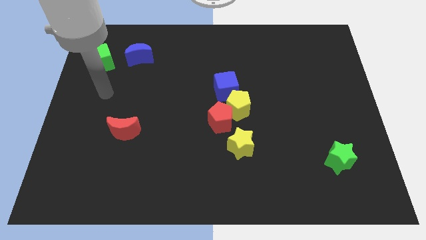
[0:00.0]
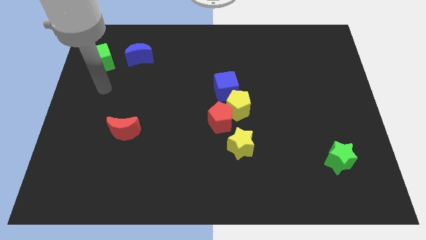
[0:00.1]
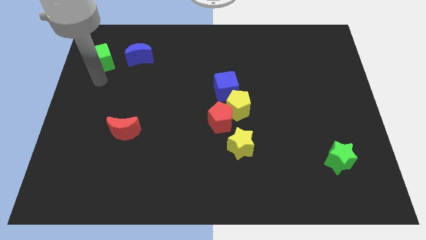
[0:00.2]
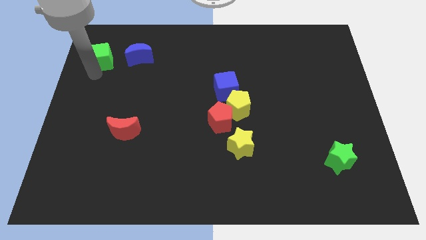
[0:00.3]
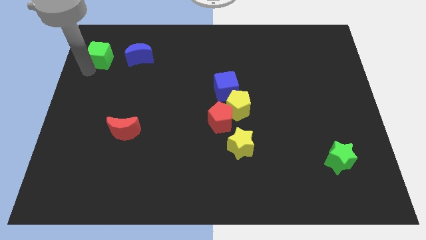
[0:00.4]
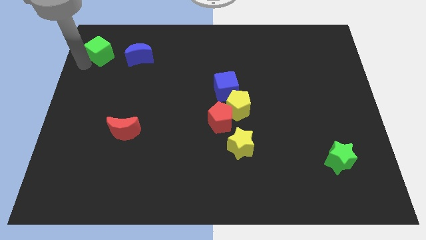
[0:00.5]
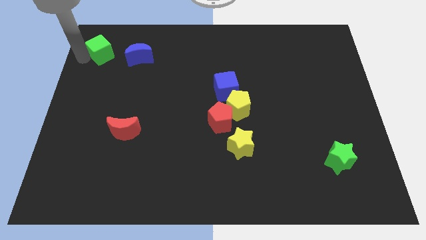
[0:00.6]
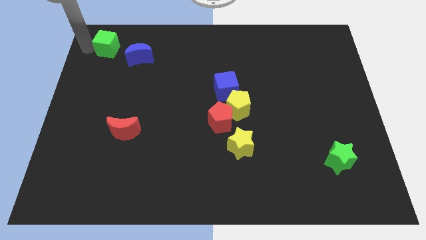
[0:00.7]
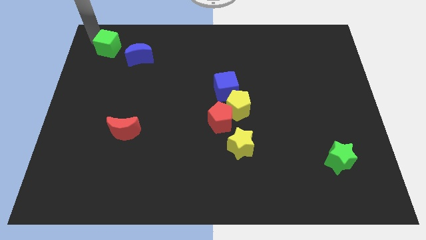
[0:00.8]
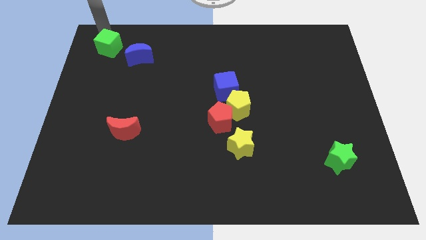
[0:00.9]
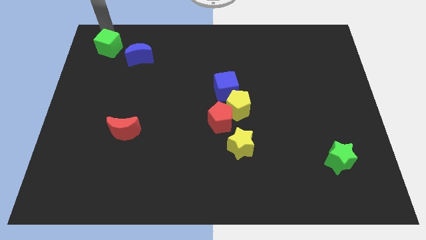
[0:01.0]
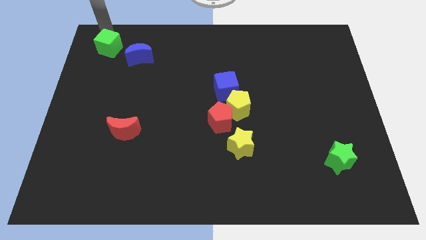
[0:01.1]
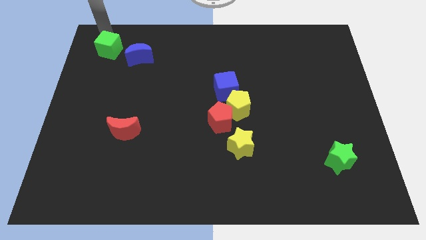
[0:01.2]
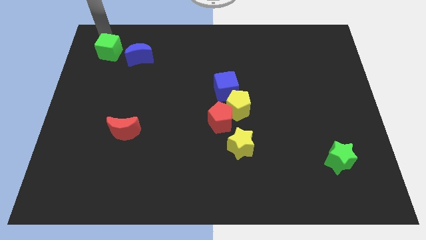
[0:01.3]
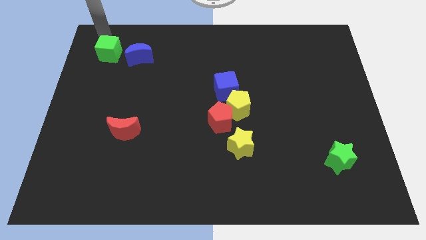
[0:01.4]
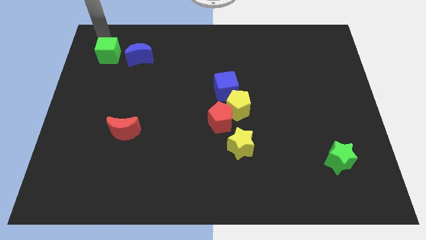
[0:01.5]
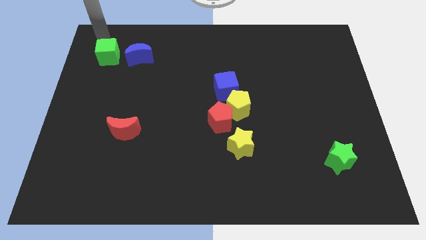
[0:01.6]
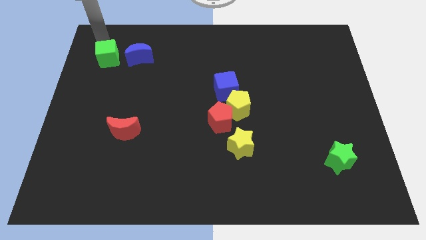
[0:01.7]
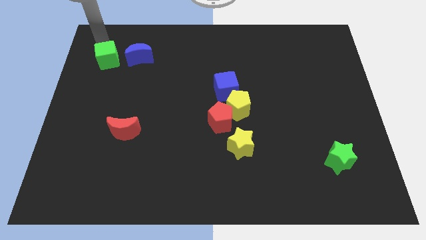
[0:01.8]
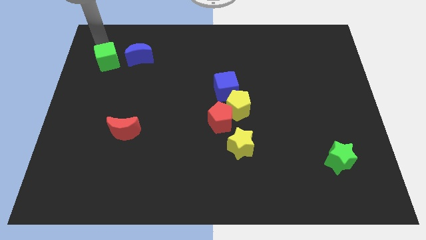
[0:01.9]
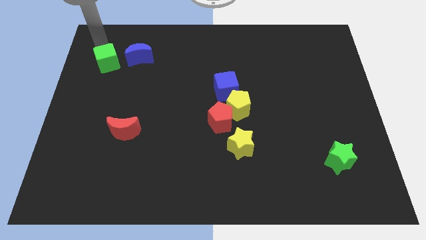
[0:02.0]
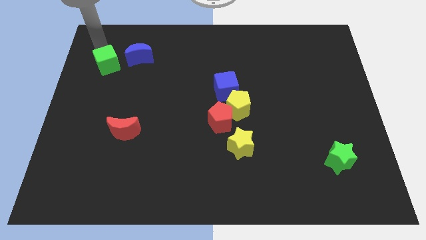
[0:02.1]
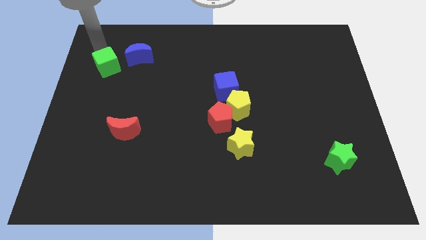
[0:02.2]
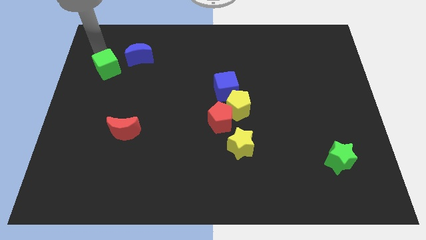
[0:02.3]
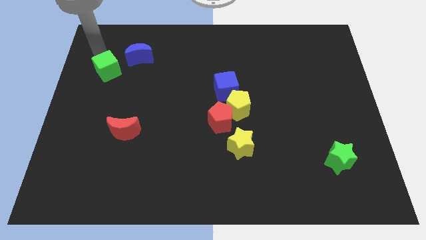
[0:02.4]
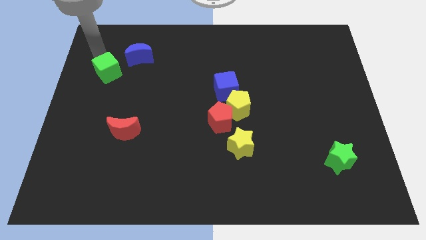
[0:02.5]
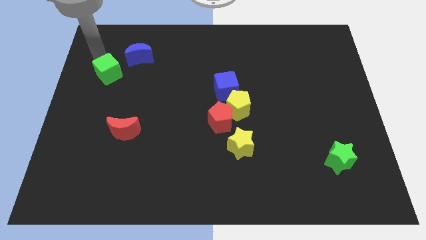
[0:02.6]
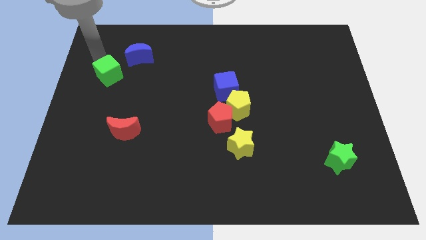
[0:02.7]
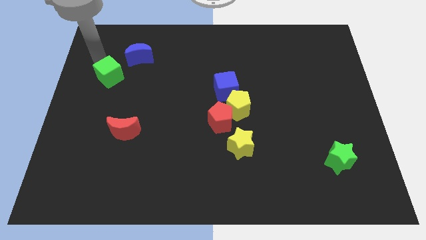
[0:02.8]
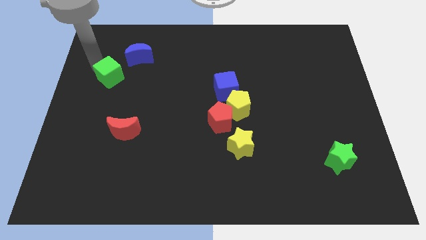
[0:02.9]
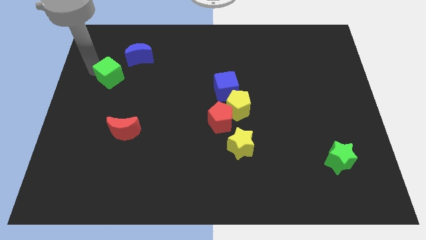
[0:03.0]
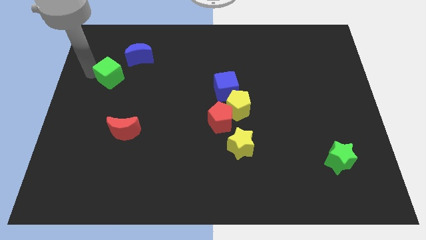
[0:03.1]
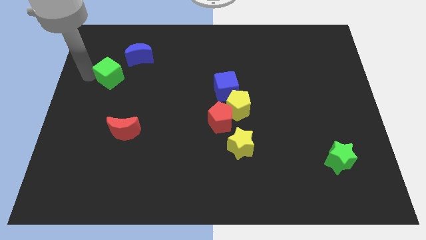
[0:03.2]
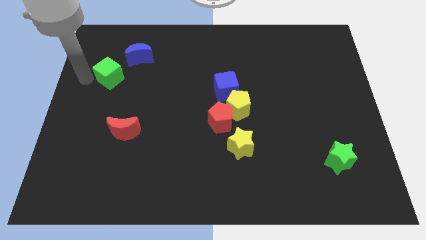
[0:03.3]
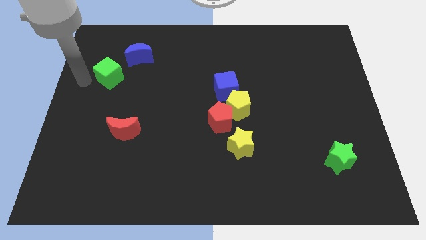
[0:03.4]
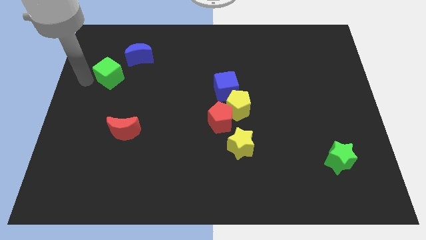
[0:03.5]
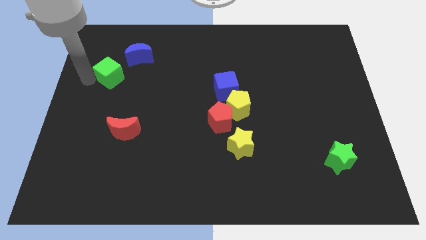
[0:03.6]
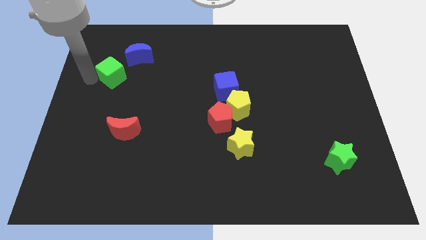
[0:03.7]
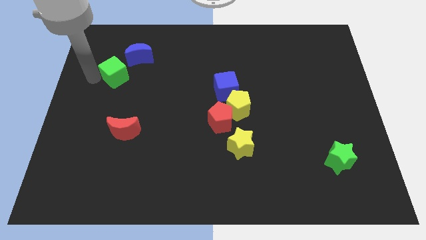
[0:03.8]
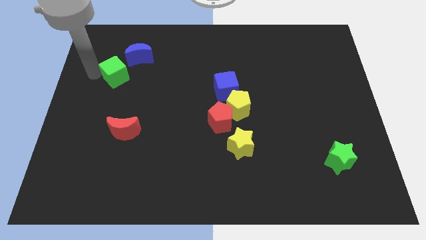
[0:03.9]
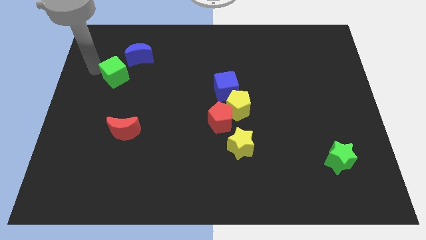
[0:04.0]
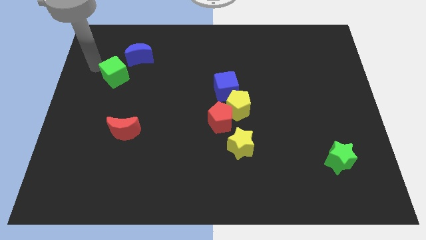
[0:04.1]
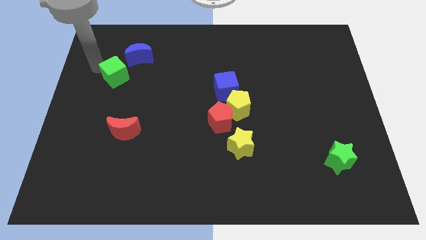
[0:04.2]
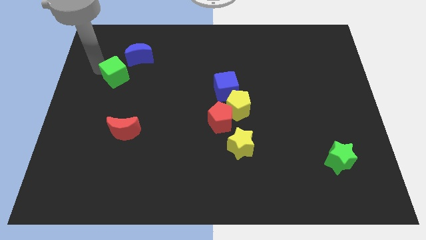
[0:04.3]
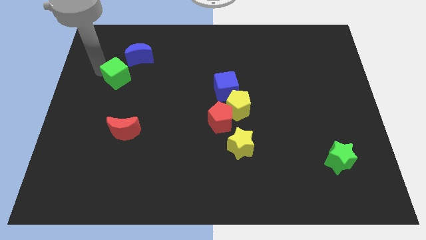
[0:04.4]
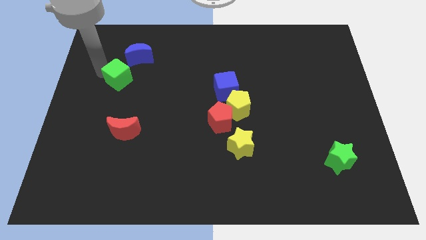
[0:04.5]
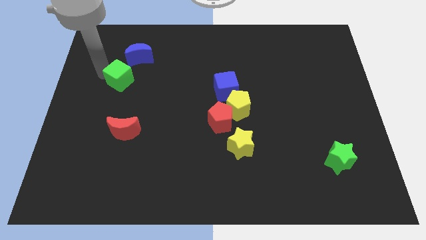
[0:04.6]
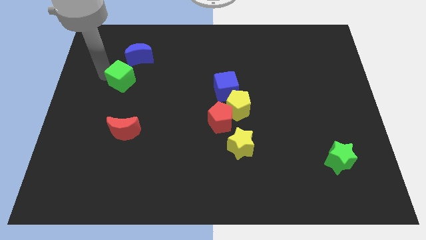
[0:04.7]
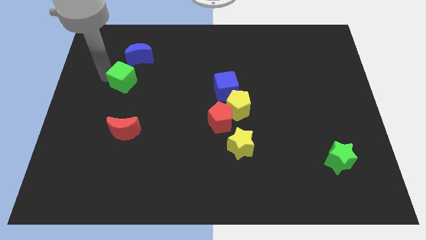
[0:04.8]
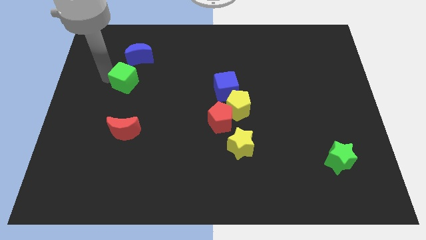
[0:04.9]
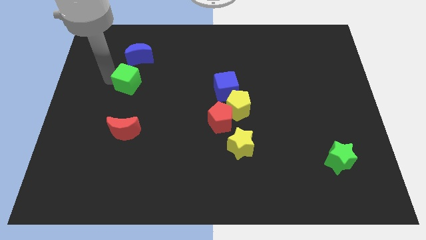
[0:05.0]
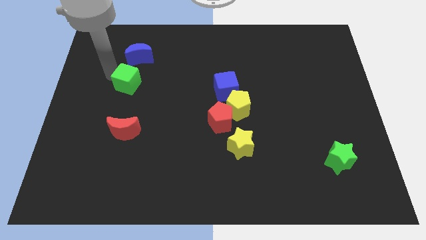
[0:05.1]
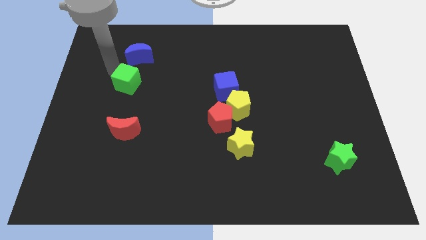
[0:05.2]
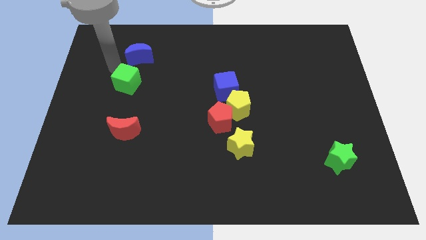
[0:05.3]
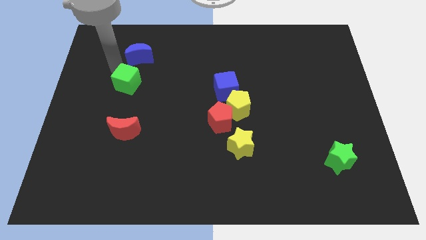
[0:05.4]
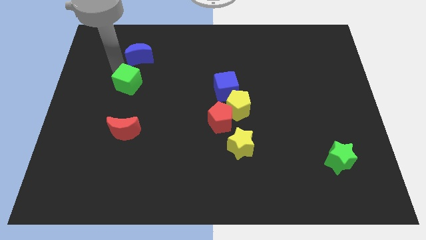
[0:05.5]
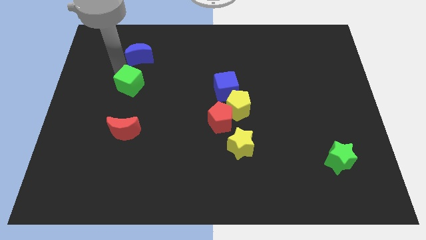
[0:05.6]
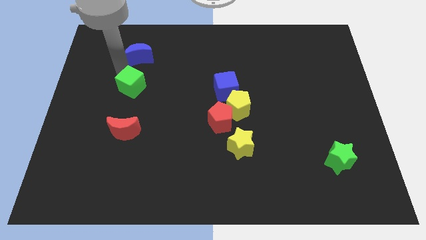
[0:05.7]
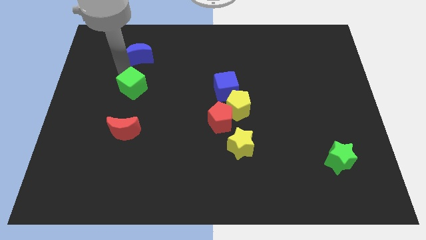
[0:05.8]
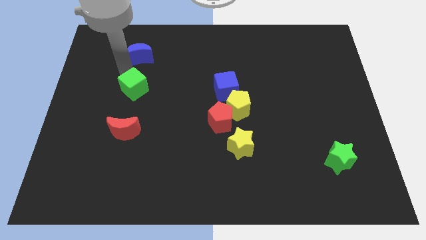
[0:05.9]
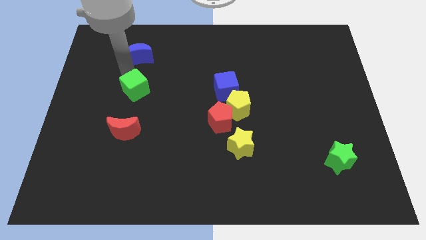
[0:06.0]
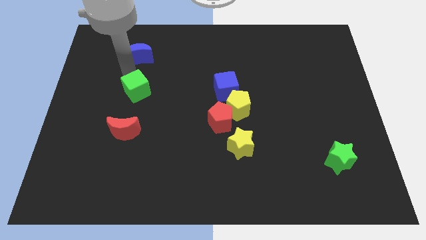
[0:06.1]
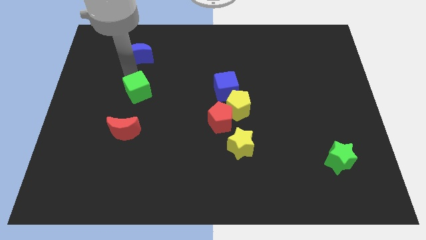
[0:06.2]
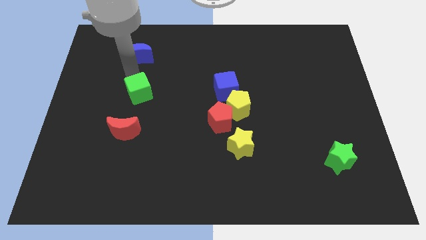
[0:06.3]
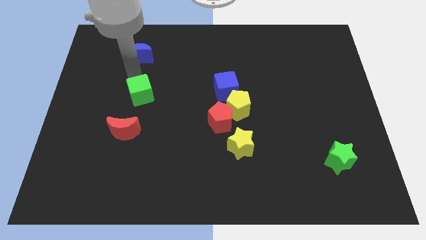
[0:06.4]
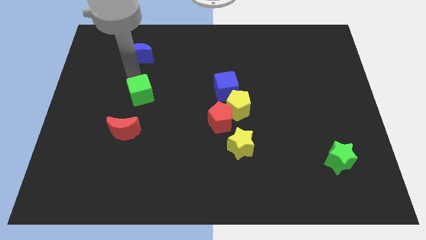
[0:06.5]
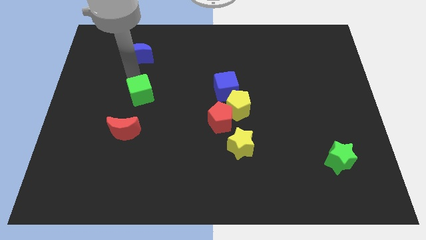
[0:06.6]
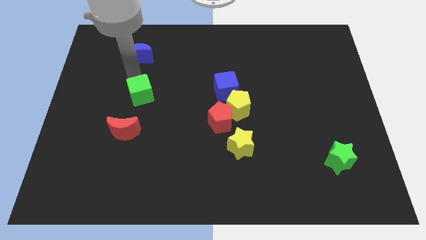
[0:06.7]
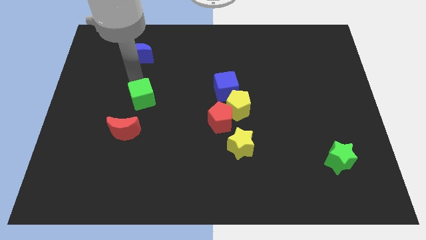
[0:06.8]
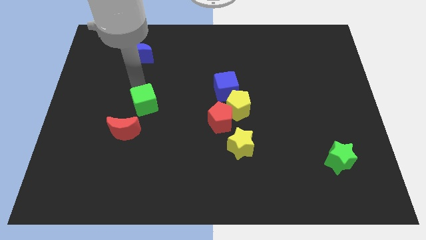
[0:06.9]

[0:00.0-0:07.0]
slide the green cube diagonally up and to the right of the red moon

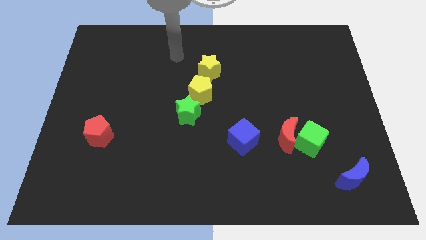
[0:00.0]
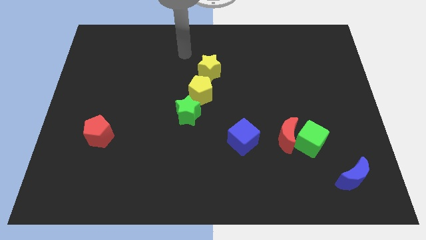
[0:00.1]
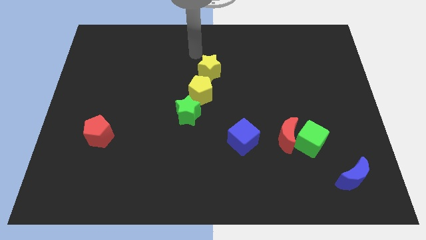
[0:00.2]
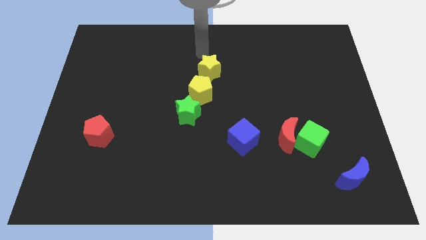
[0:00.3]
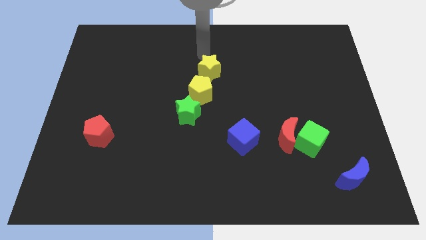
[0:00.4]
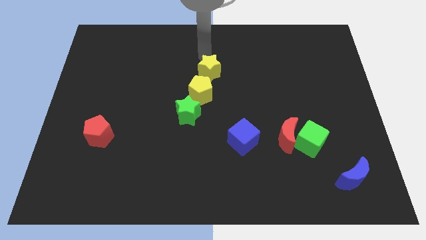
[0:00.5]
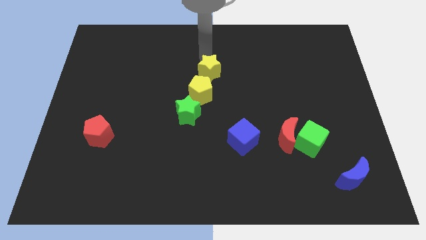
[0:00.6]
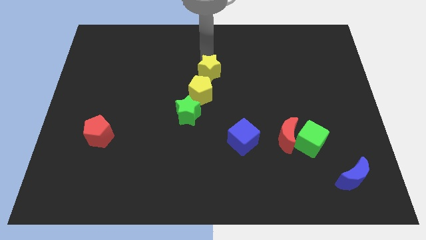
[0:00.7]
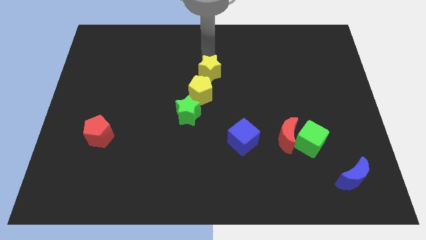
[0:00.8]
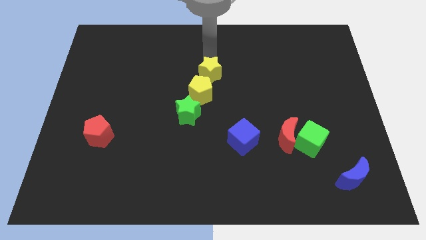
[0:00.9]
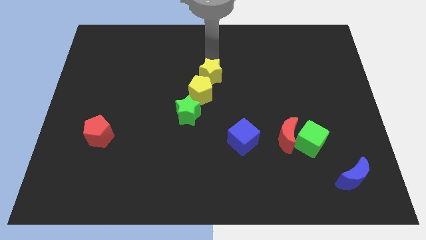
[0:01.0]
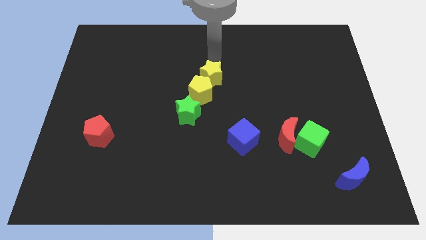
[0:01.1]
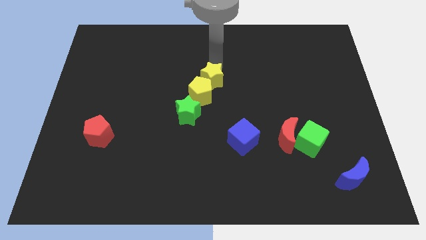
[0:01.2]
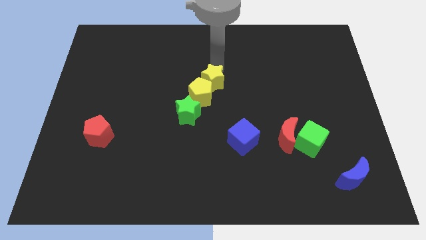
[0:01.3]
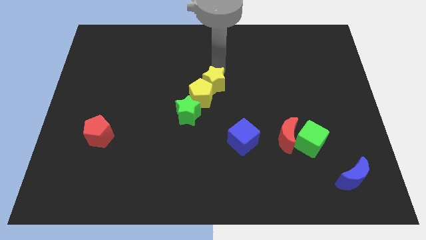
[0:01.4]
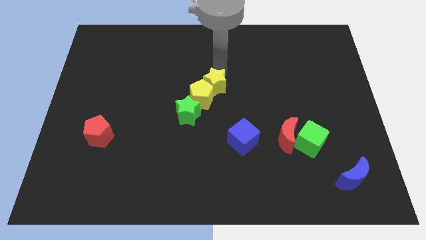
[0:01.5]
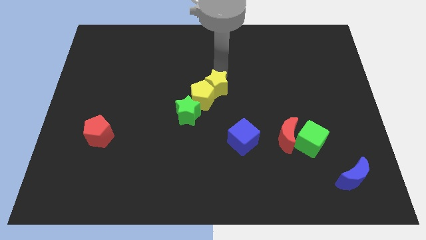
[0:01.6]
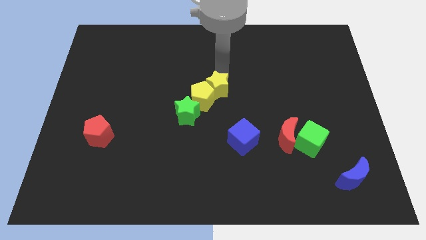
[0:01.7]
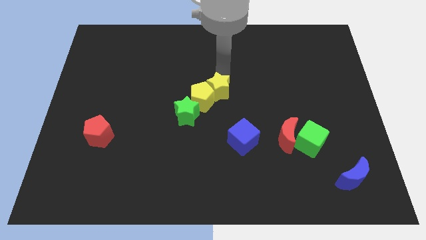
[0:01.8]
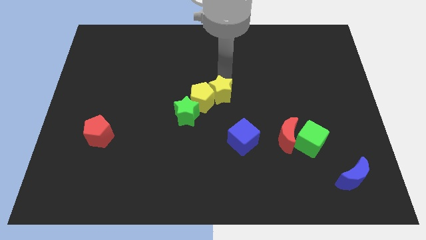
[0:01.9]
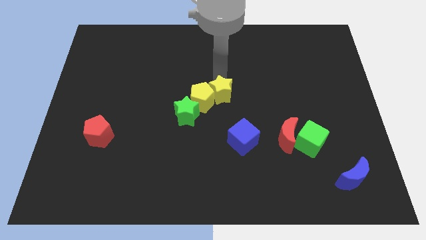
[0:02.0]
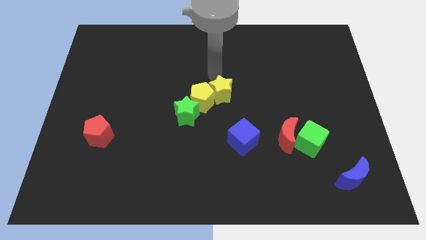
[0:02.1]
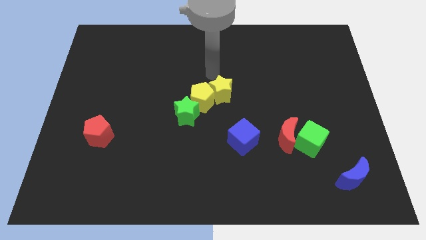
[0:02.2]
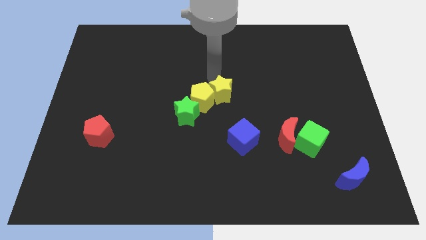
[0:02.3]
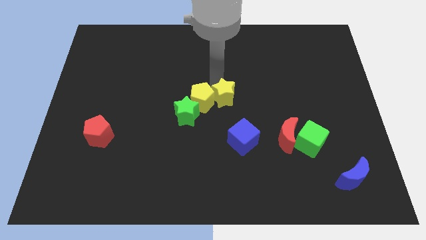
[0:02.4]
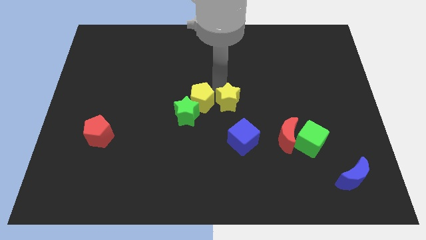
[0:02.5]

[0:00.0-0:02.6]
put the yellow star to the right side of the green star
